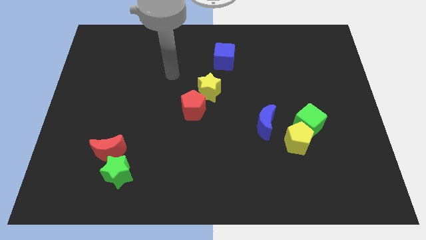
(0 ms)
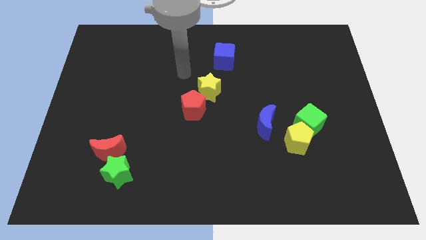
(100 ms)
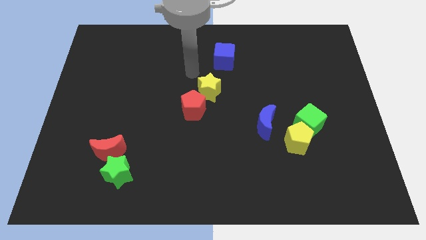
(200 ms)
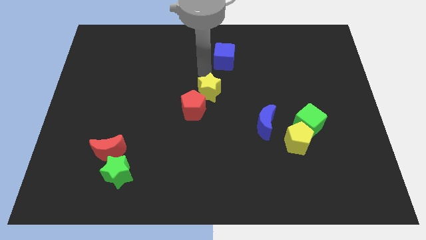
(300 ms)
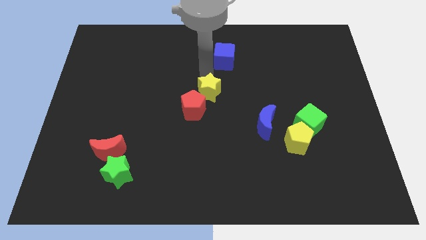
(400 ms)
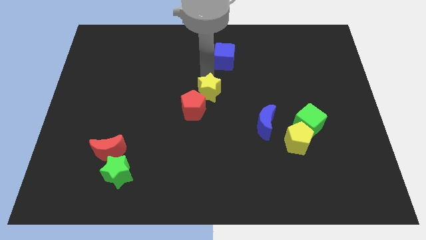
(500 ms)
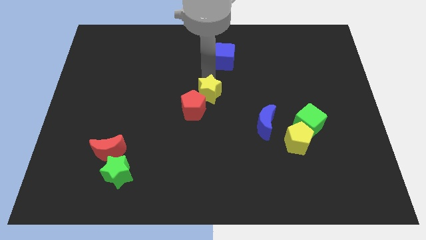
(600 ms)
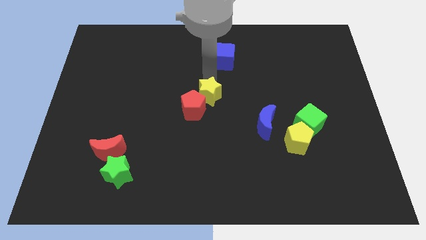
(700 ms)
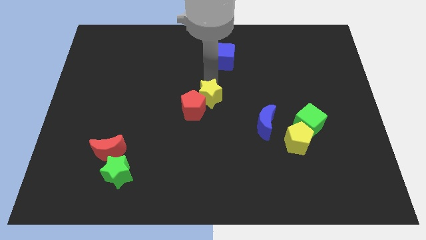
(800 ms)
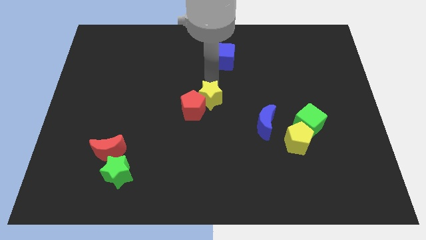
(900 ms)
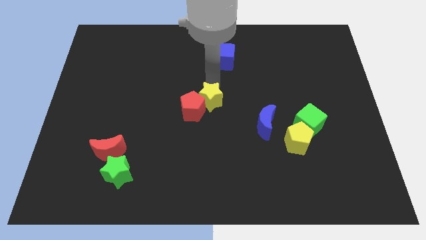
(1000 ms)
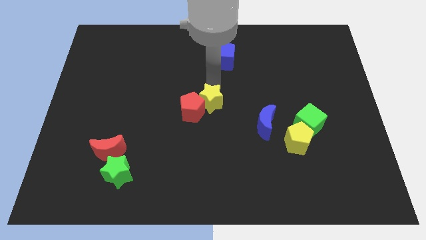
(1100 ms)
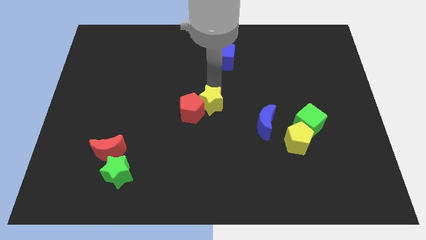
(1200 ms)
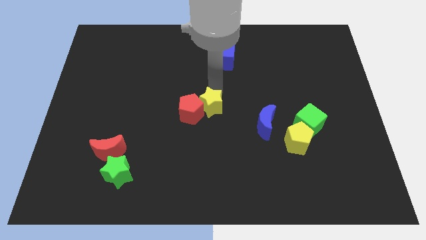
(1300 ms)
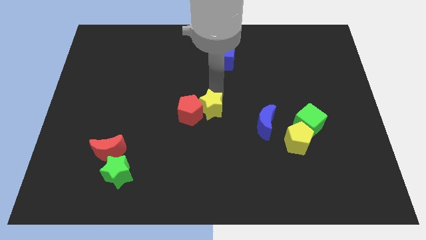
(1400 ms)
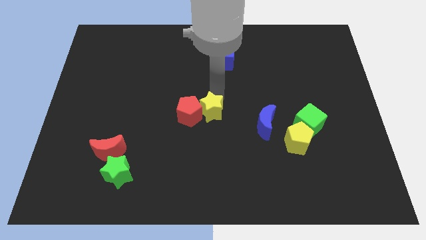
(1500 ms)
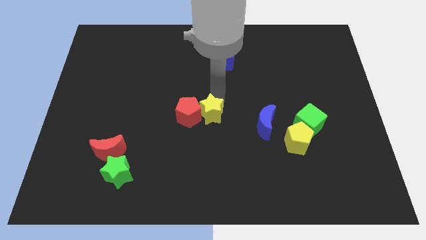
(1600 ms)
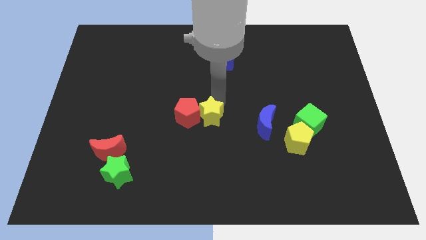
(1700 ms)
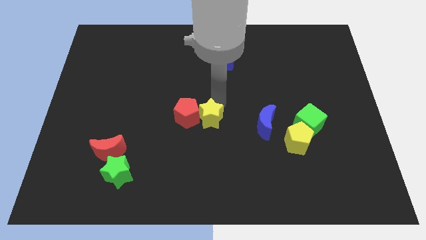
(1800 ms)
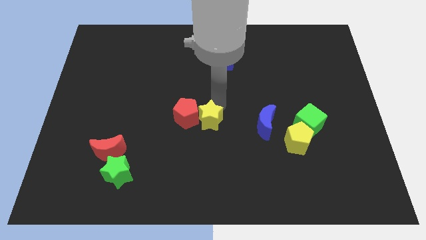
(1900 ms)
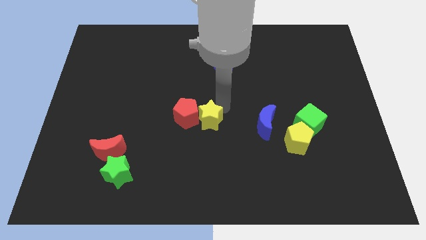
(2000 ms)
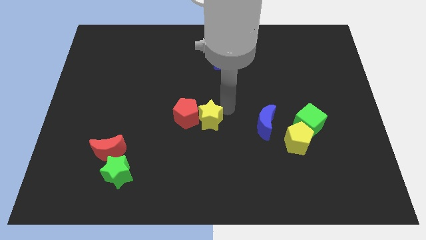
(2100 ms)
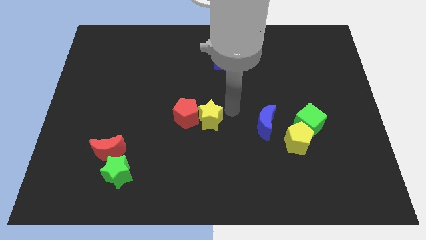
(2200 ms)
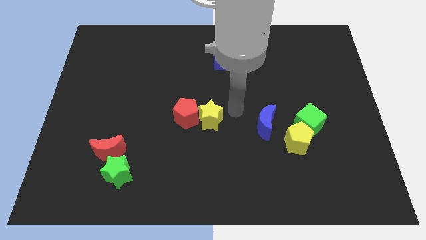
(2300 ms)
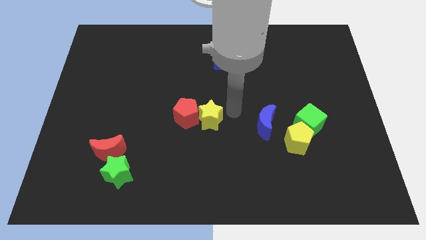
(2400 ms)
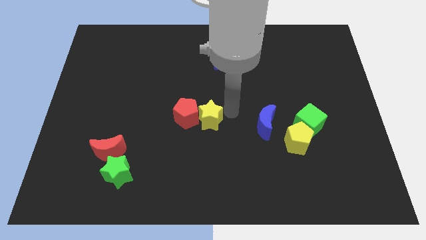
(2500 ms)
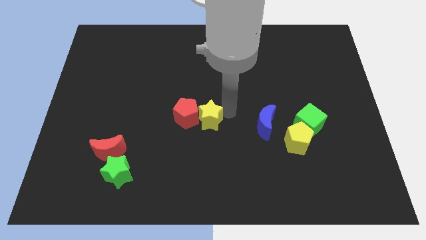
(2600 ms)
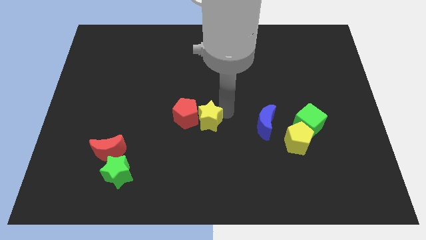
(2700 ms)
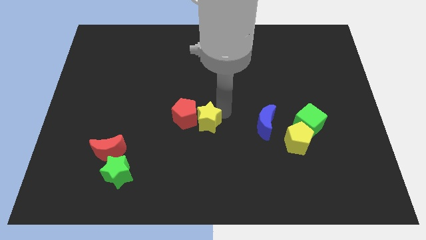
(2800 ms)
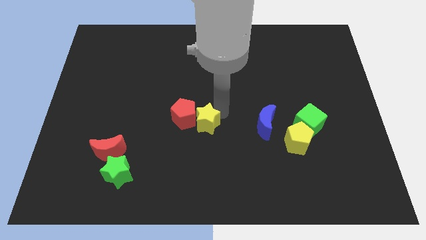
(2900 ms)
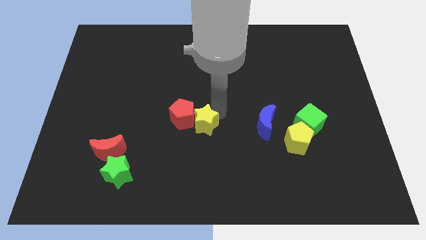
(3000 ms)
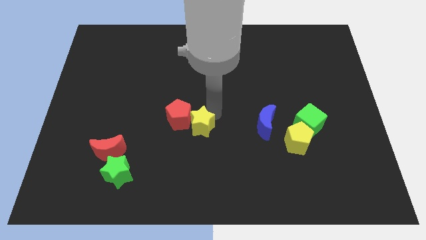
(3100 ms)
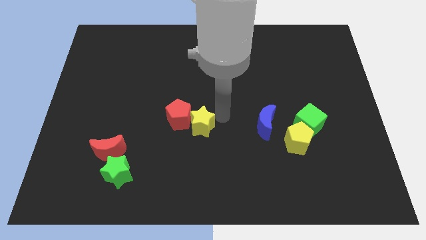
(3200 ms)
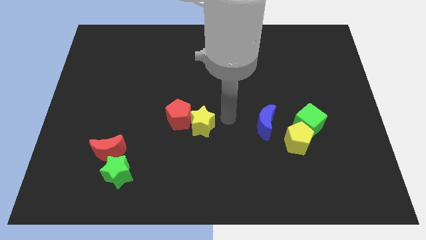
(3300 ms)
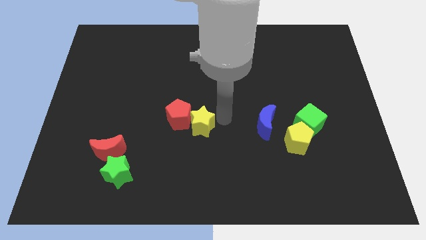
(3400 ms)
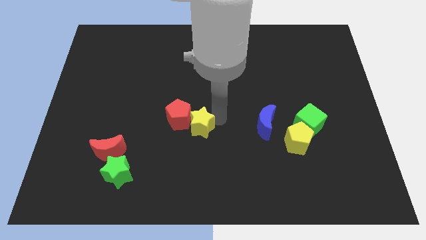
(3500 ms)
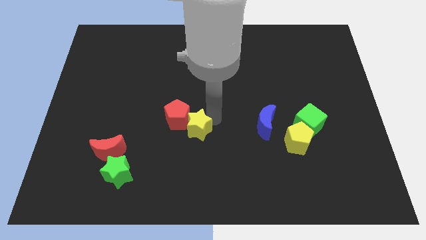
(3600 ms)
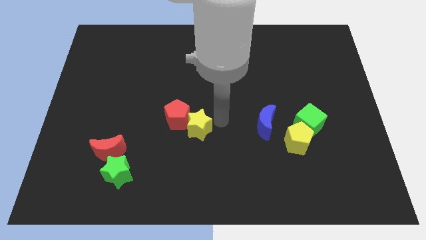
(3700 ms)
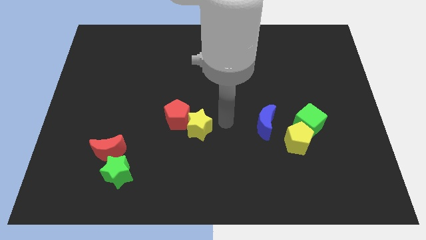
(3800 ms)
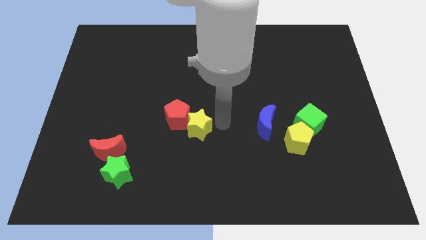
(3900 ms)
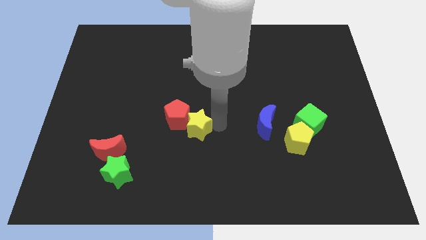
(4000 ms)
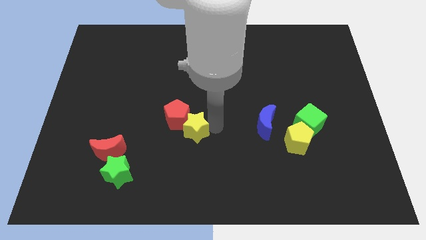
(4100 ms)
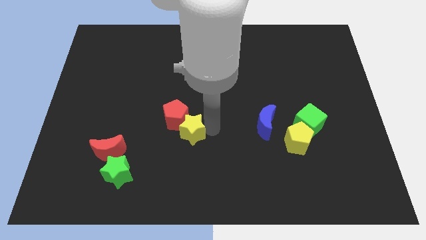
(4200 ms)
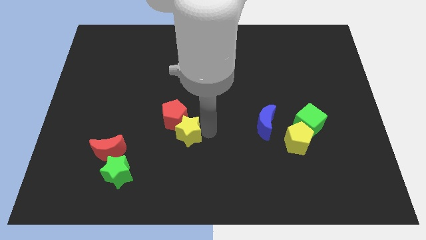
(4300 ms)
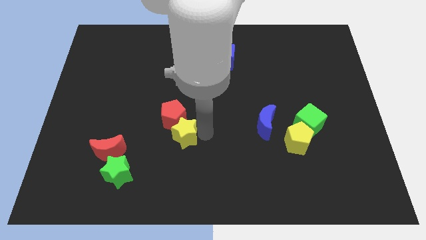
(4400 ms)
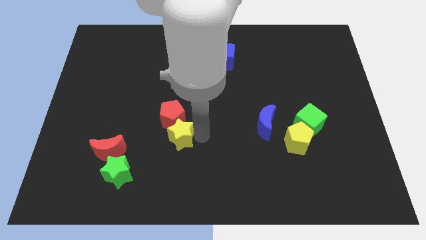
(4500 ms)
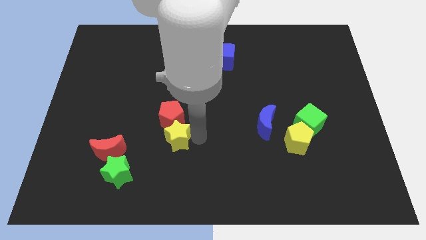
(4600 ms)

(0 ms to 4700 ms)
put the yellow star diagonally down and to the left of the red pentagon

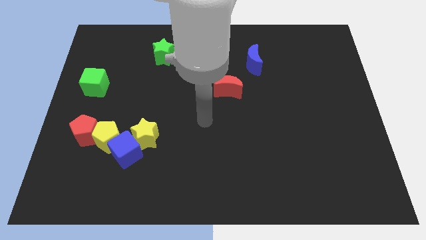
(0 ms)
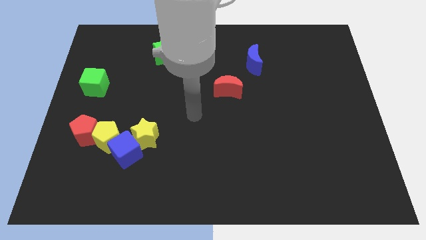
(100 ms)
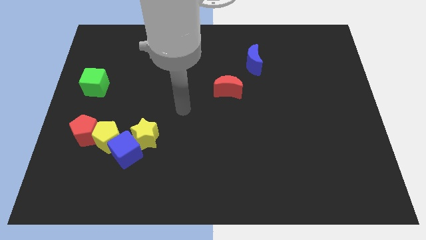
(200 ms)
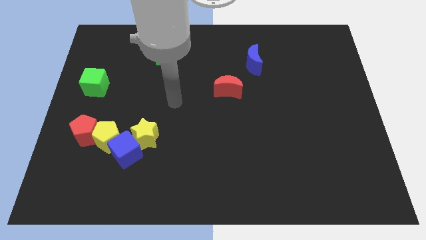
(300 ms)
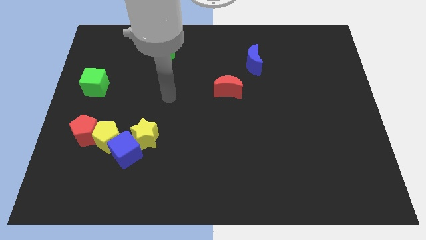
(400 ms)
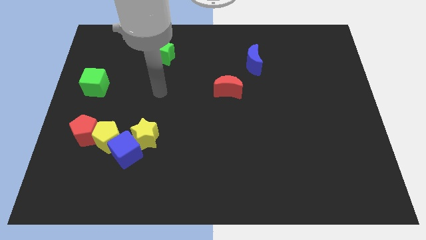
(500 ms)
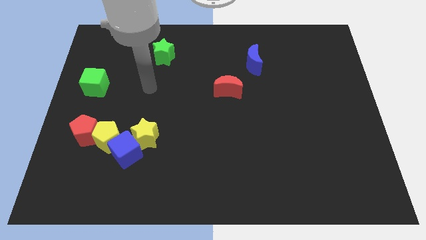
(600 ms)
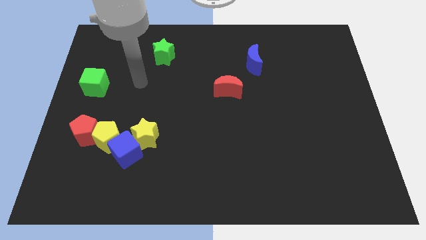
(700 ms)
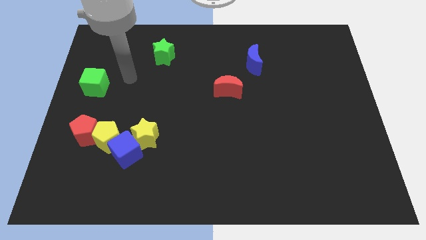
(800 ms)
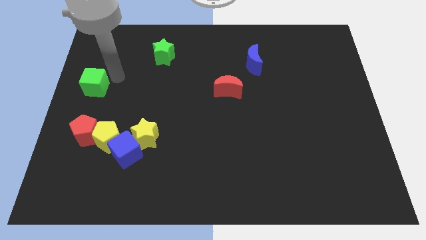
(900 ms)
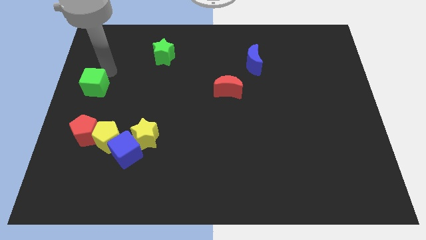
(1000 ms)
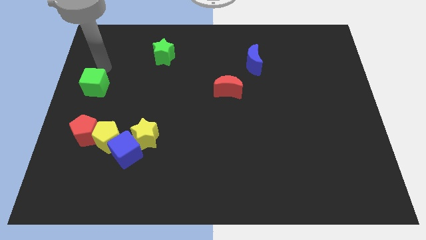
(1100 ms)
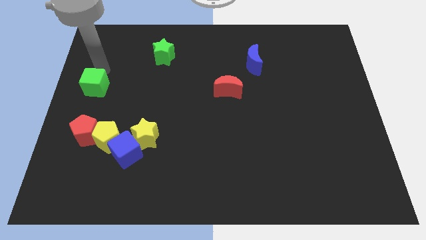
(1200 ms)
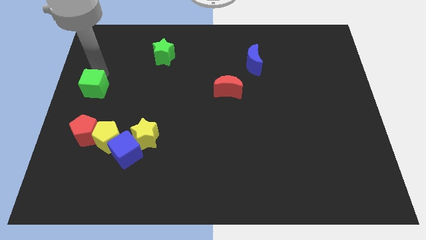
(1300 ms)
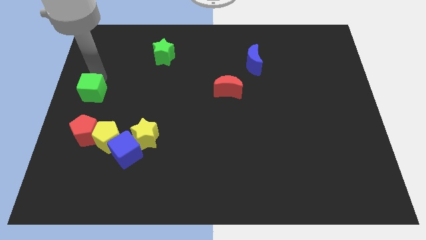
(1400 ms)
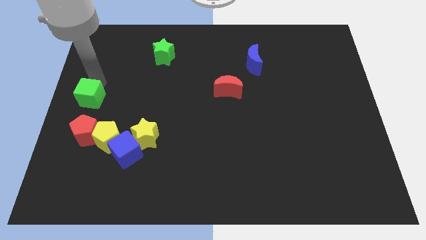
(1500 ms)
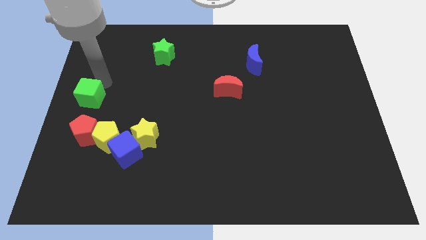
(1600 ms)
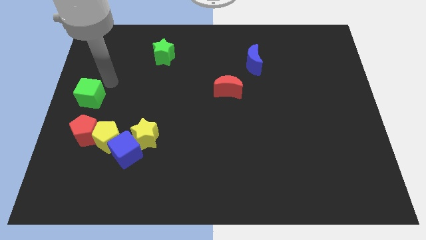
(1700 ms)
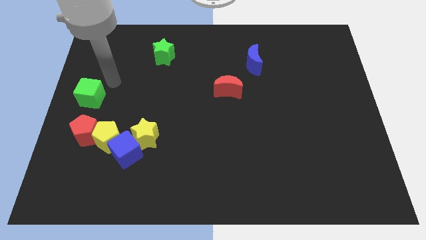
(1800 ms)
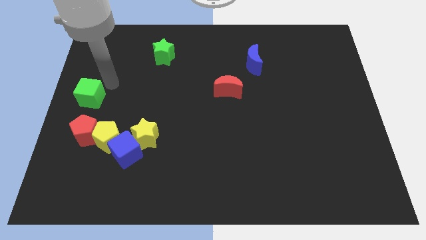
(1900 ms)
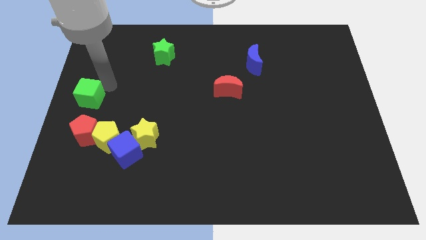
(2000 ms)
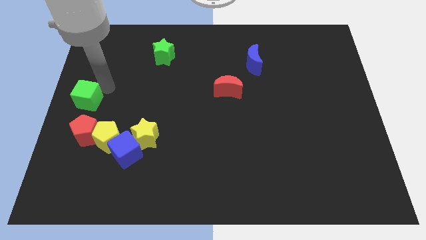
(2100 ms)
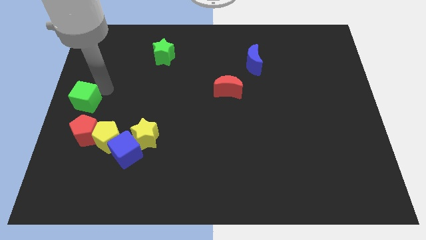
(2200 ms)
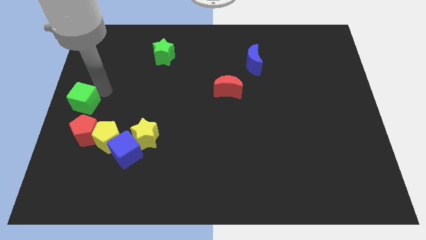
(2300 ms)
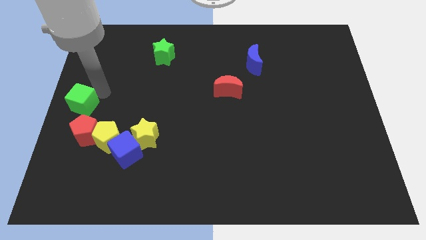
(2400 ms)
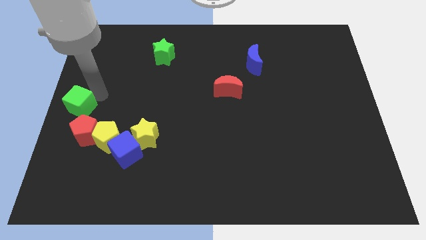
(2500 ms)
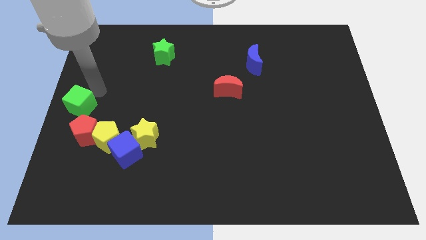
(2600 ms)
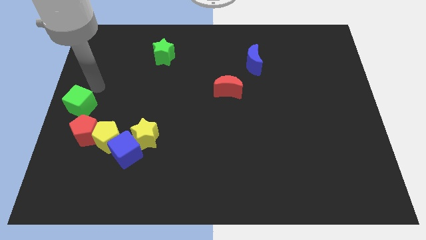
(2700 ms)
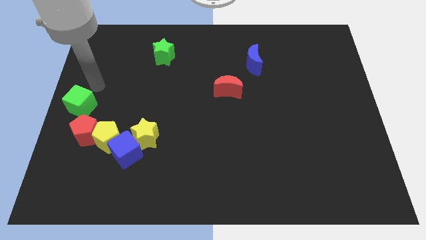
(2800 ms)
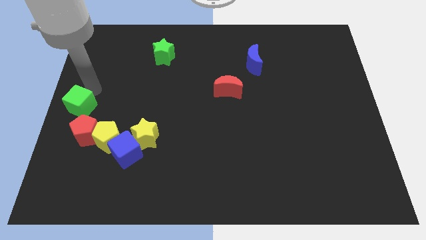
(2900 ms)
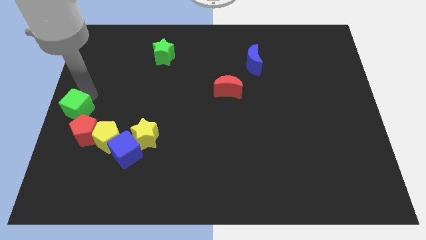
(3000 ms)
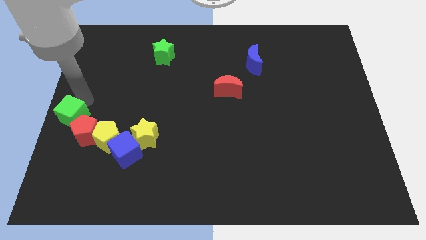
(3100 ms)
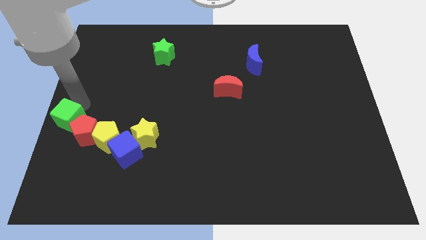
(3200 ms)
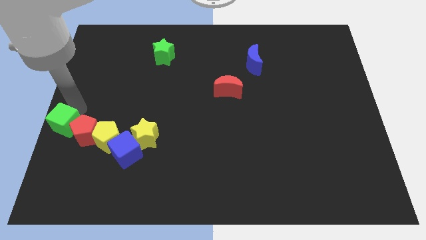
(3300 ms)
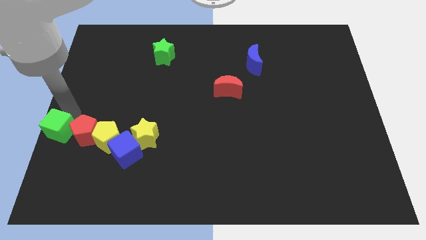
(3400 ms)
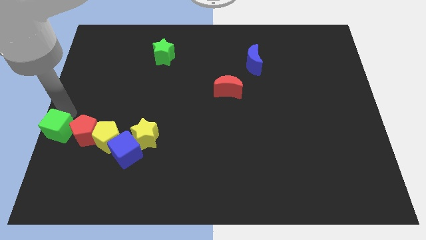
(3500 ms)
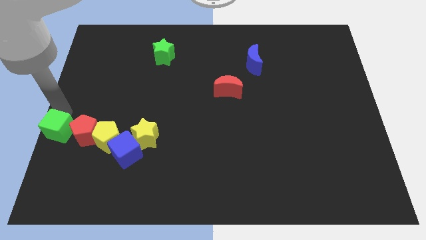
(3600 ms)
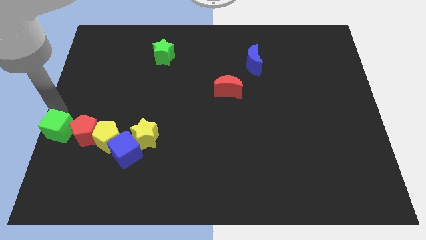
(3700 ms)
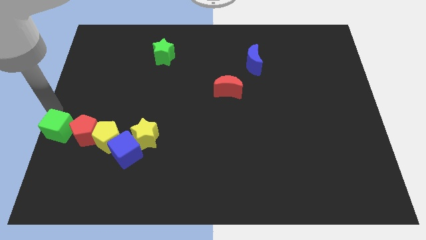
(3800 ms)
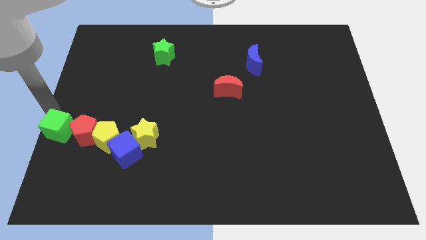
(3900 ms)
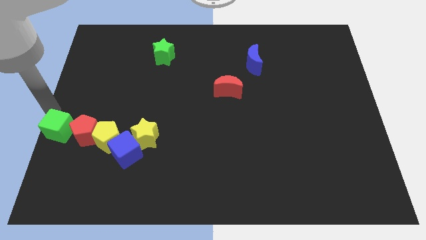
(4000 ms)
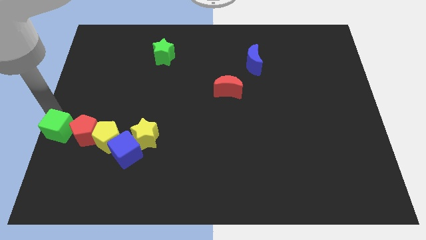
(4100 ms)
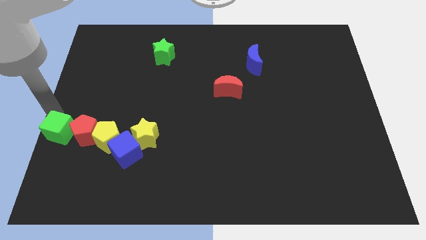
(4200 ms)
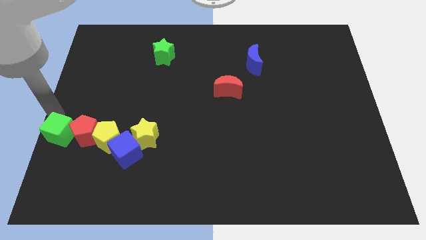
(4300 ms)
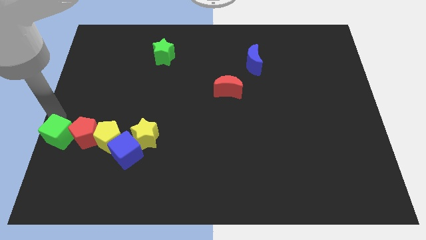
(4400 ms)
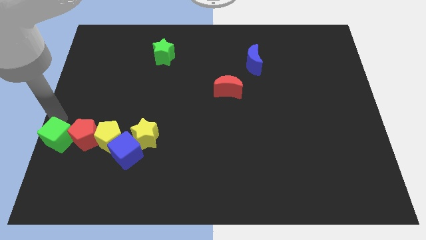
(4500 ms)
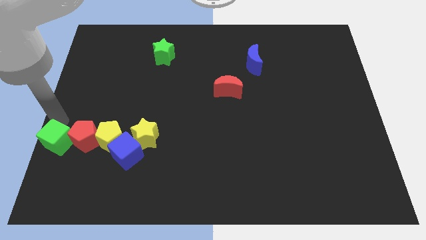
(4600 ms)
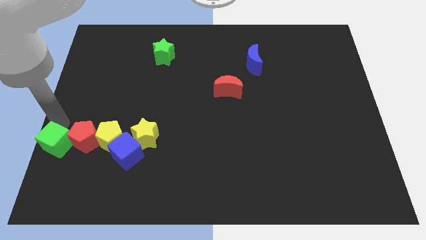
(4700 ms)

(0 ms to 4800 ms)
slide the green cube just left of the blue cube
